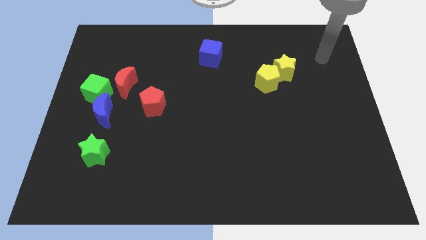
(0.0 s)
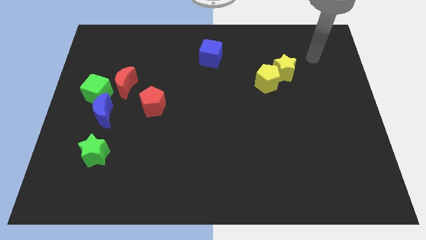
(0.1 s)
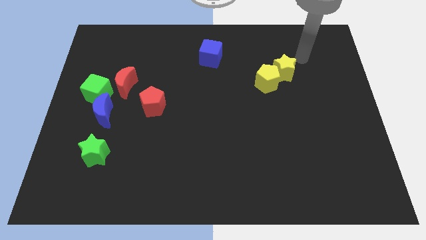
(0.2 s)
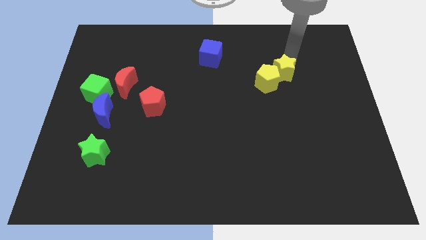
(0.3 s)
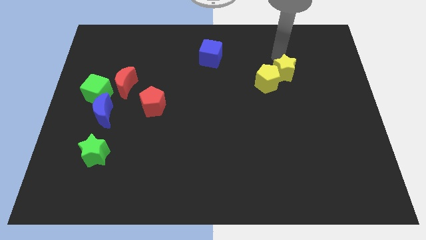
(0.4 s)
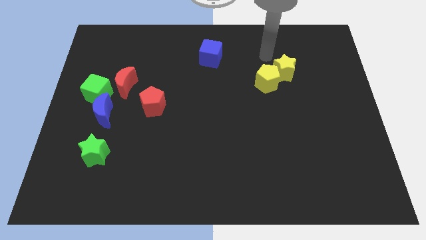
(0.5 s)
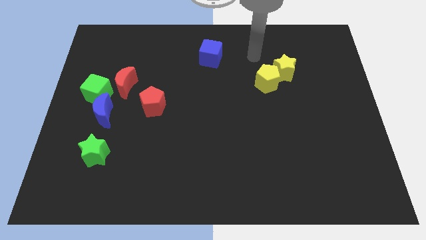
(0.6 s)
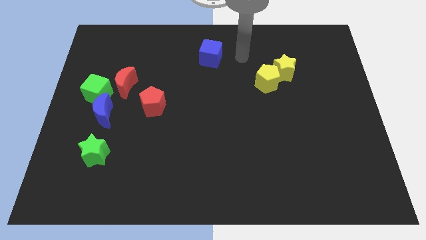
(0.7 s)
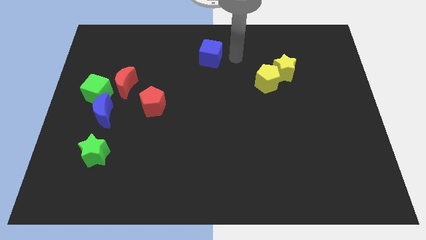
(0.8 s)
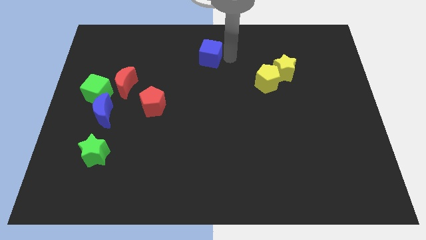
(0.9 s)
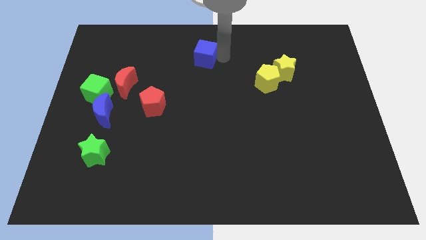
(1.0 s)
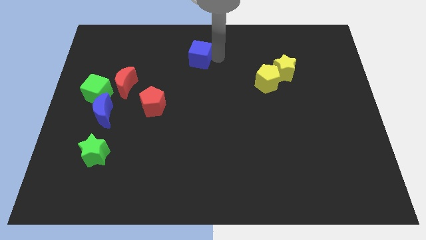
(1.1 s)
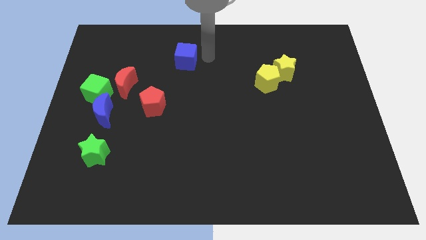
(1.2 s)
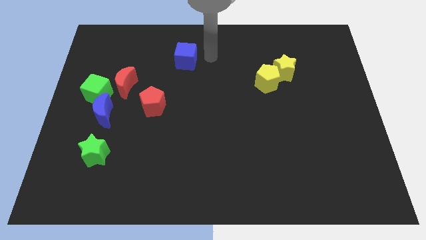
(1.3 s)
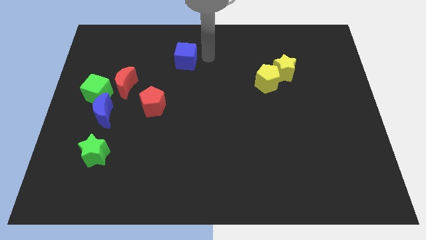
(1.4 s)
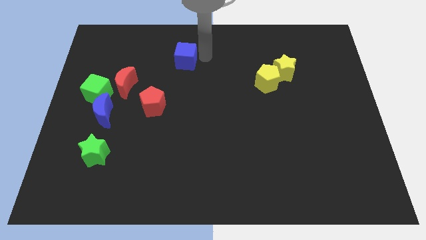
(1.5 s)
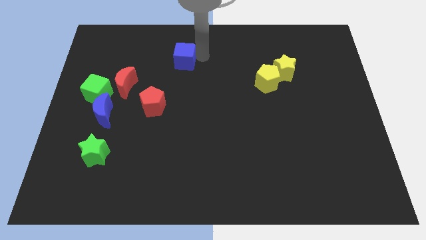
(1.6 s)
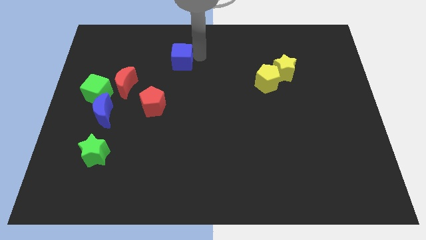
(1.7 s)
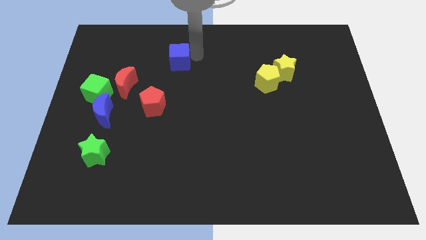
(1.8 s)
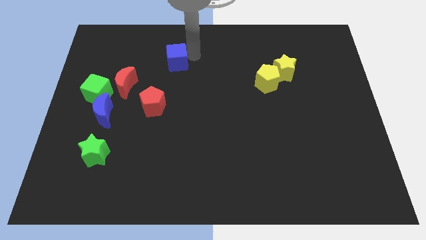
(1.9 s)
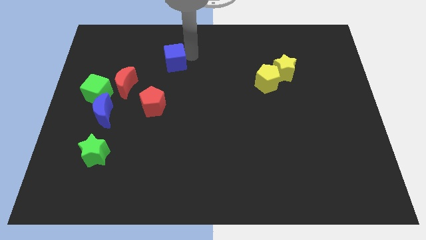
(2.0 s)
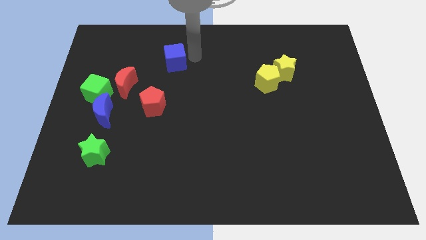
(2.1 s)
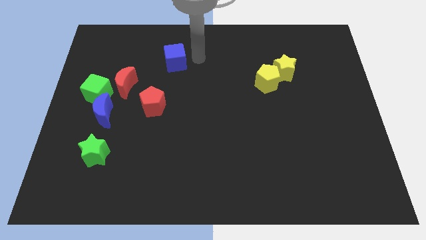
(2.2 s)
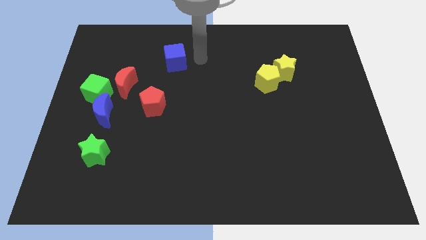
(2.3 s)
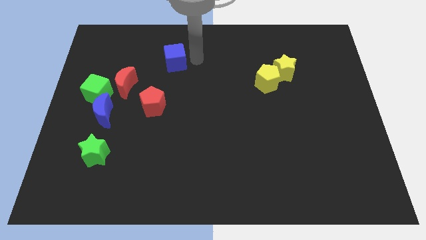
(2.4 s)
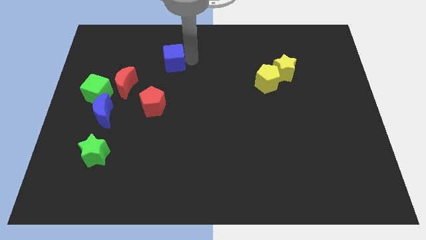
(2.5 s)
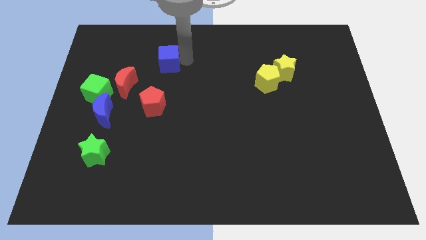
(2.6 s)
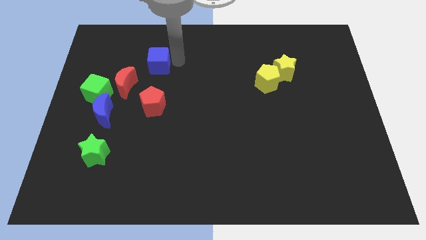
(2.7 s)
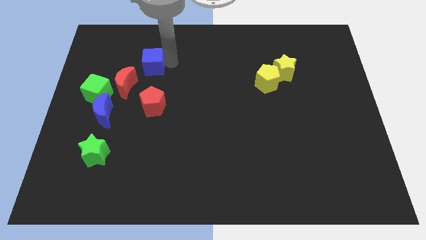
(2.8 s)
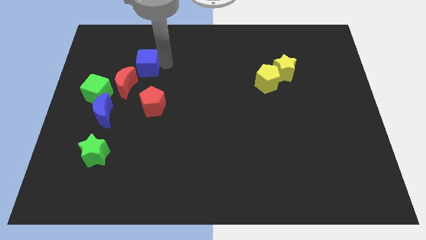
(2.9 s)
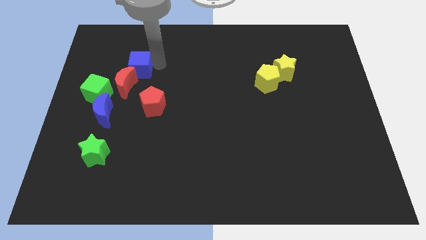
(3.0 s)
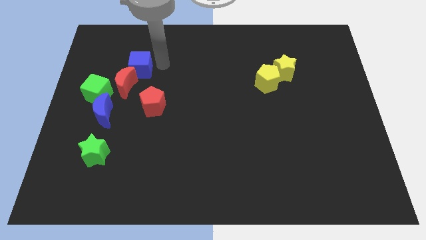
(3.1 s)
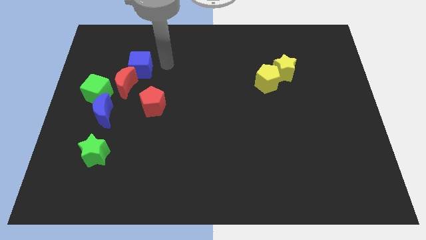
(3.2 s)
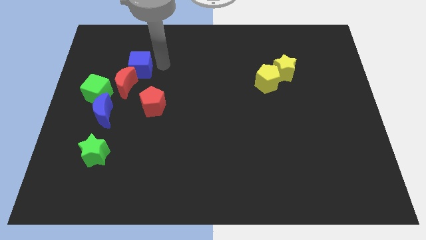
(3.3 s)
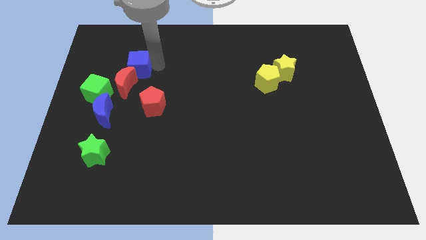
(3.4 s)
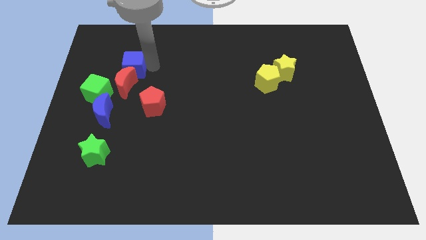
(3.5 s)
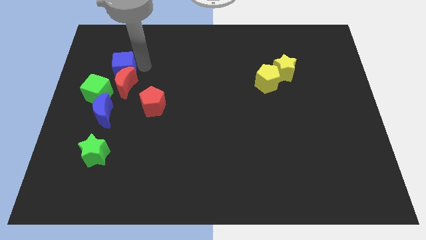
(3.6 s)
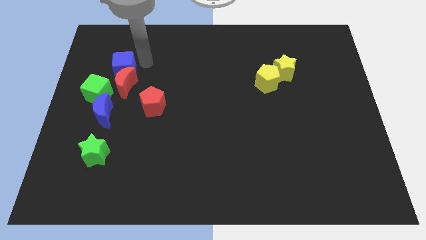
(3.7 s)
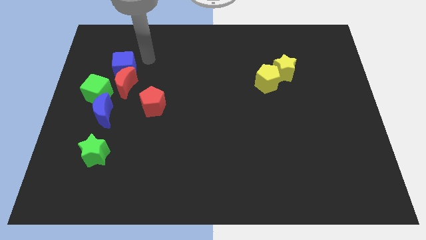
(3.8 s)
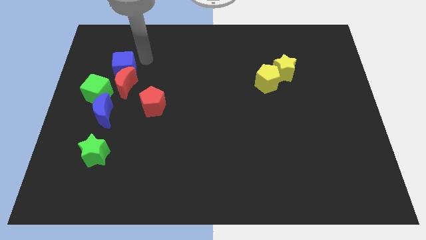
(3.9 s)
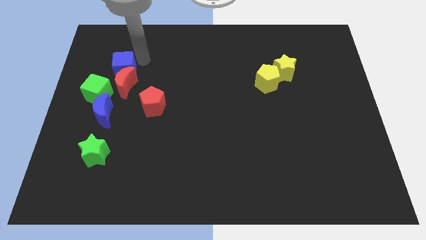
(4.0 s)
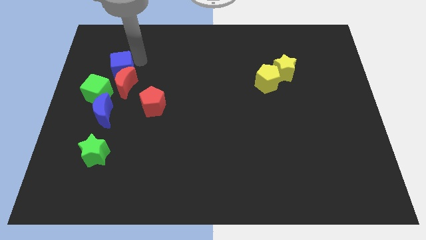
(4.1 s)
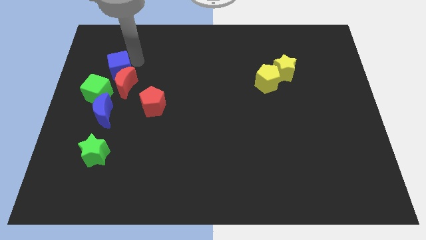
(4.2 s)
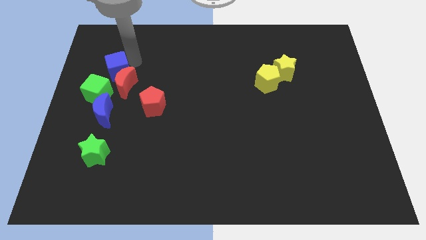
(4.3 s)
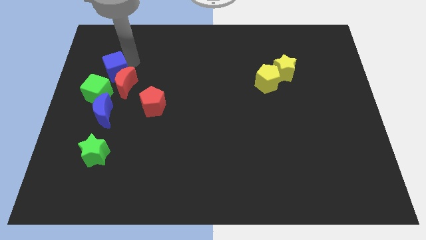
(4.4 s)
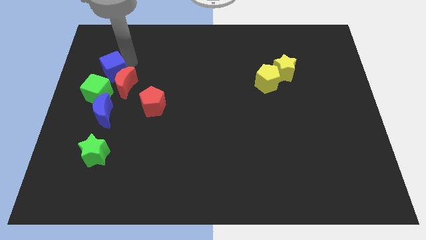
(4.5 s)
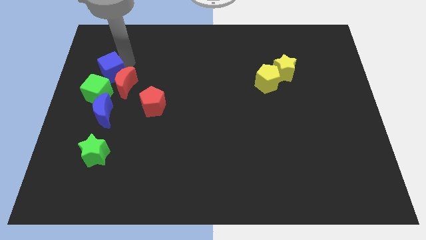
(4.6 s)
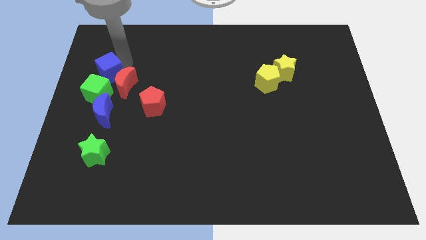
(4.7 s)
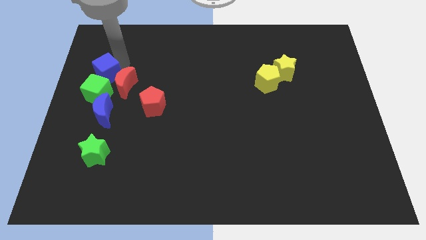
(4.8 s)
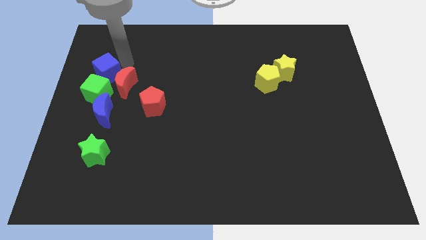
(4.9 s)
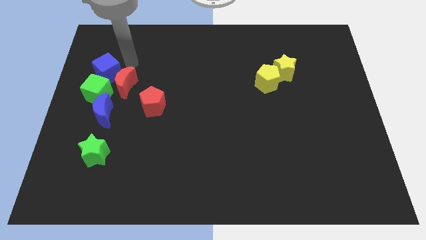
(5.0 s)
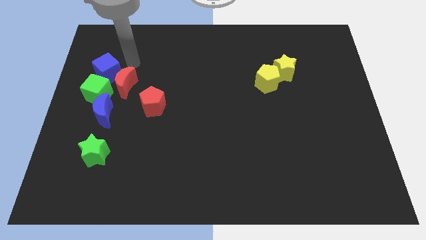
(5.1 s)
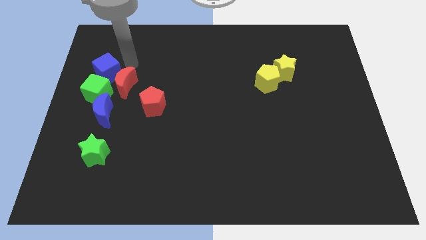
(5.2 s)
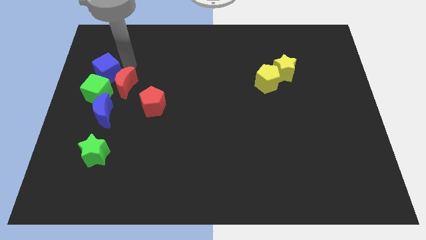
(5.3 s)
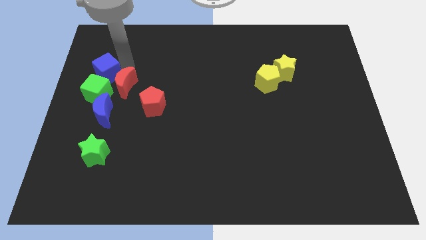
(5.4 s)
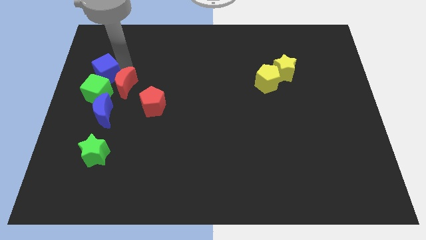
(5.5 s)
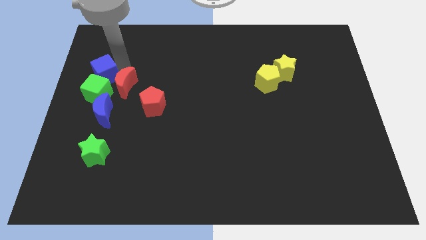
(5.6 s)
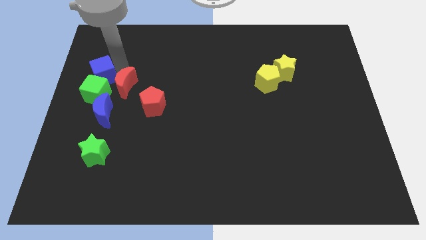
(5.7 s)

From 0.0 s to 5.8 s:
slide the blue cube to the left side

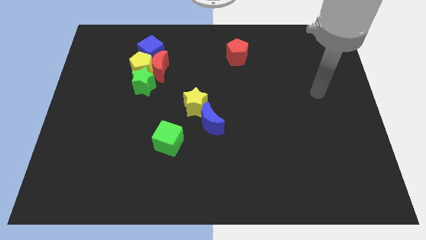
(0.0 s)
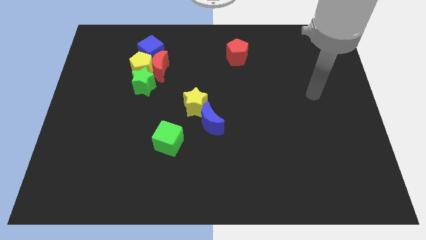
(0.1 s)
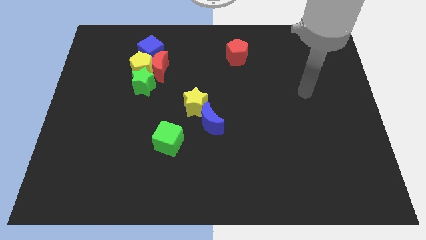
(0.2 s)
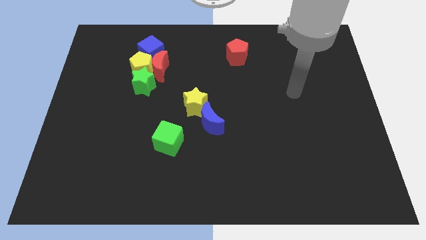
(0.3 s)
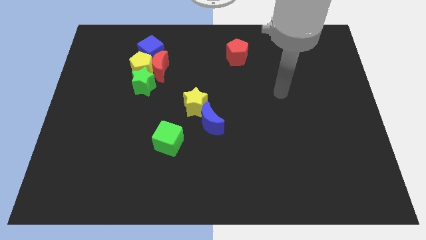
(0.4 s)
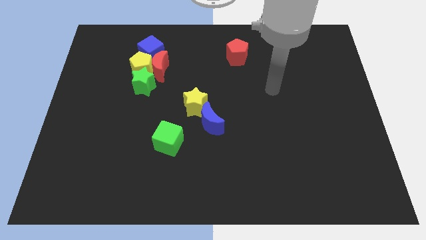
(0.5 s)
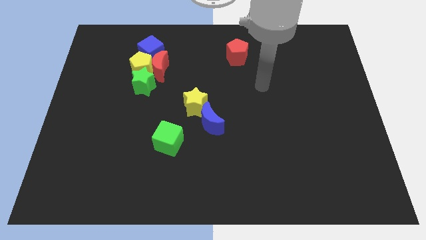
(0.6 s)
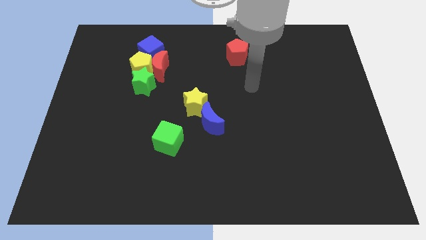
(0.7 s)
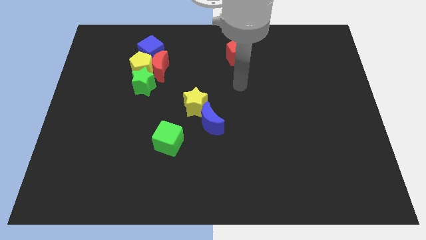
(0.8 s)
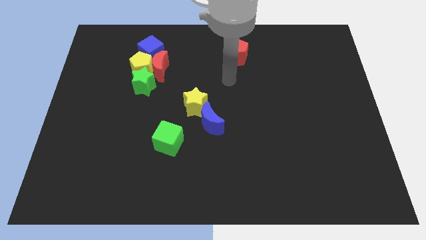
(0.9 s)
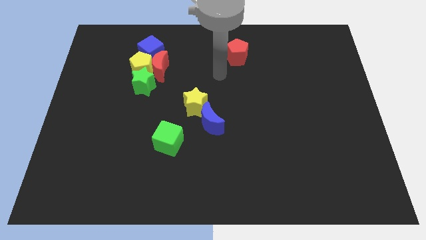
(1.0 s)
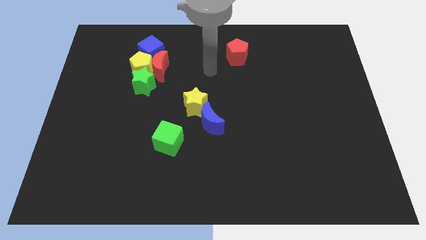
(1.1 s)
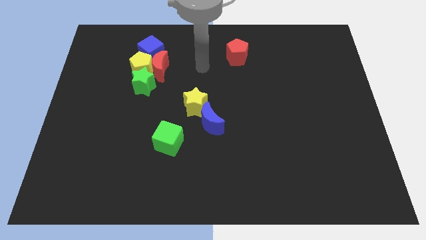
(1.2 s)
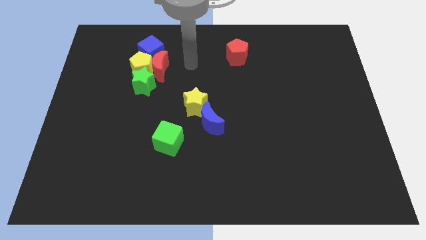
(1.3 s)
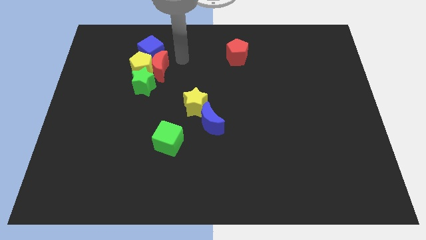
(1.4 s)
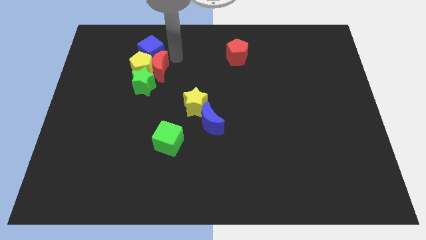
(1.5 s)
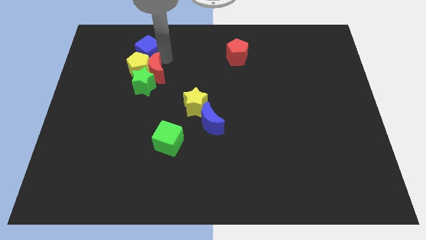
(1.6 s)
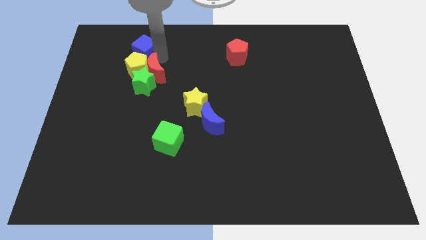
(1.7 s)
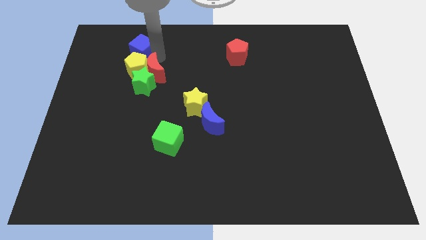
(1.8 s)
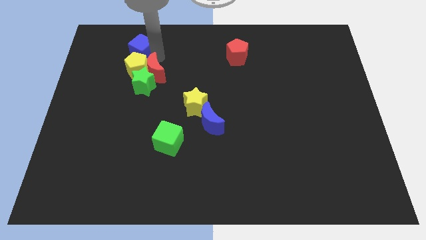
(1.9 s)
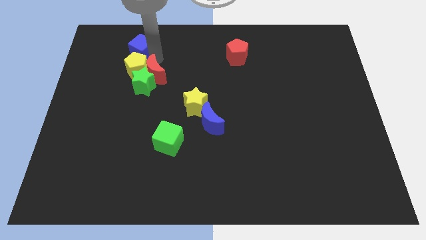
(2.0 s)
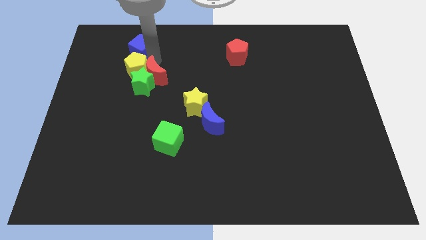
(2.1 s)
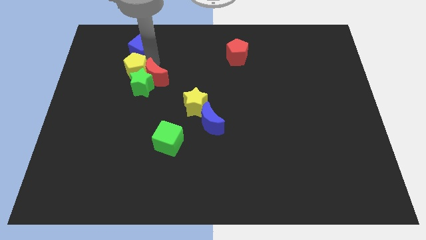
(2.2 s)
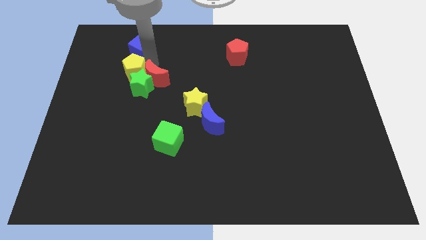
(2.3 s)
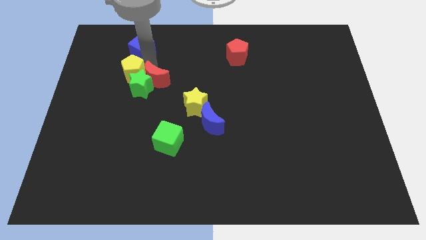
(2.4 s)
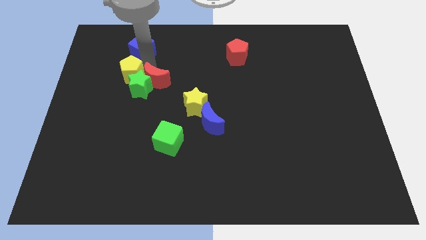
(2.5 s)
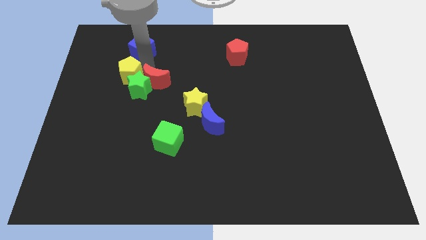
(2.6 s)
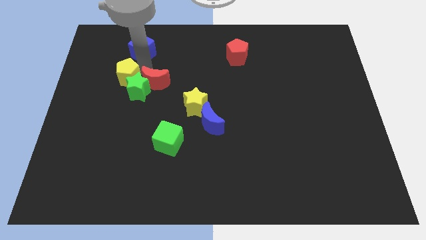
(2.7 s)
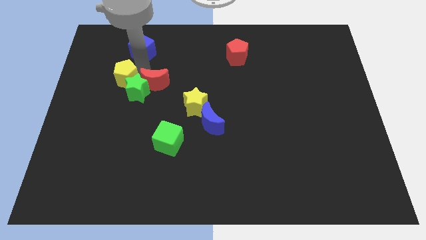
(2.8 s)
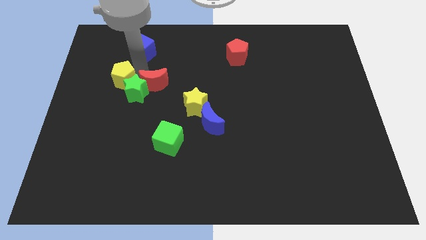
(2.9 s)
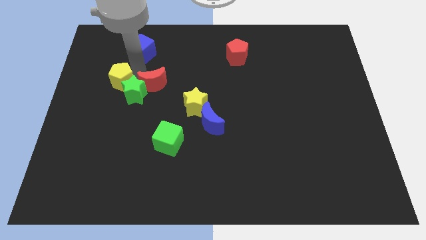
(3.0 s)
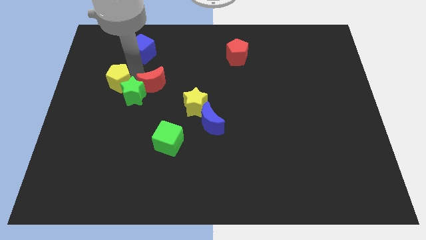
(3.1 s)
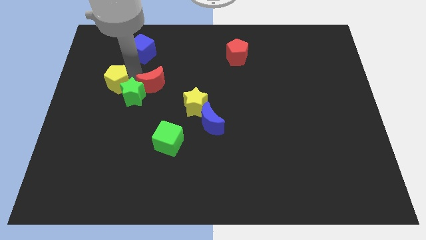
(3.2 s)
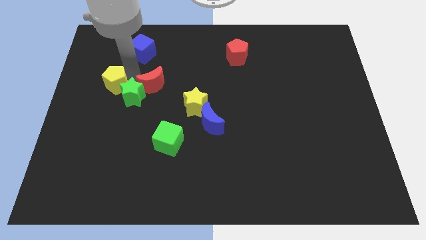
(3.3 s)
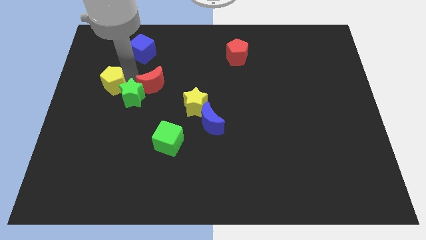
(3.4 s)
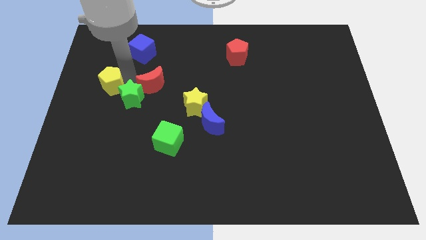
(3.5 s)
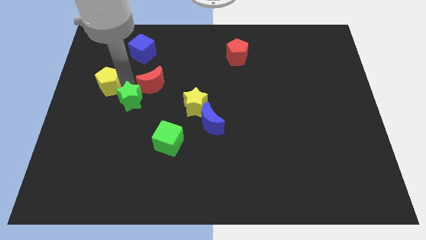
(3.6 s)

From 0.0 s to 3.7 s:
push the yellow pentagon to the center left
